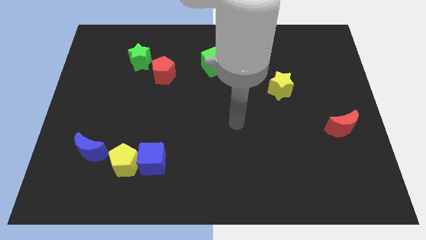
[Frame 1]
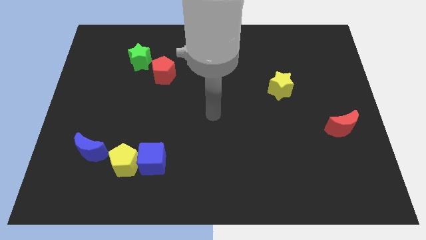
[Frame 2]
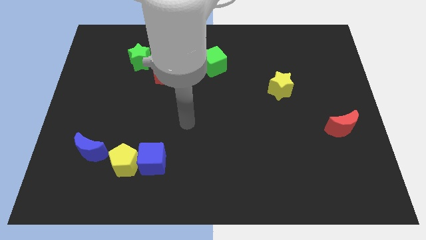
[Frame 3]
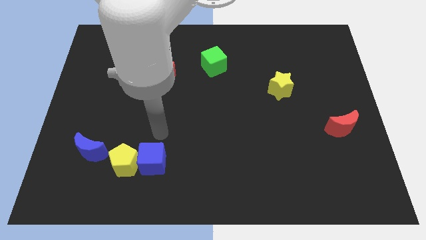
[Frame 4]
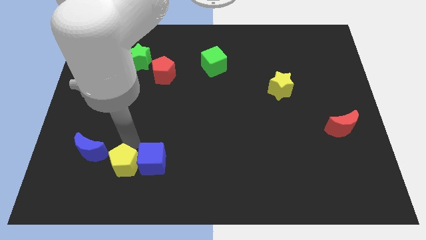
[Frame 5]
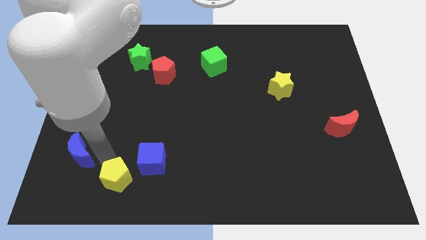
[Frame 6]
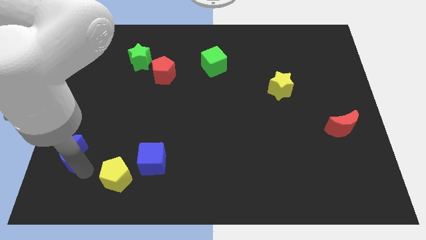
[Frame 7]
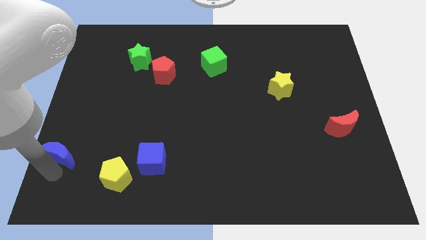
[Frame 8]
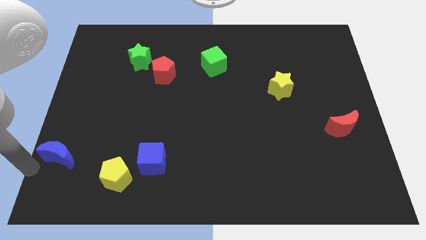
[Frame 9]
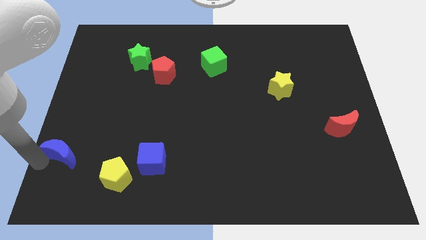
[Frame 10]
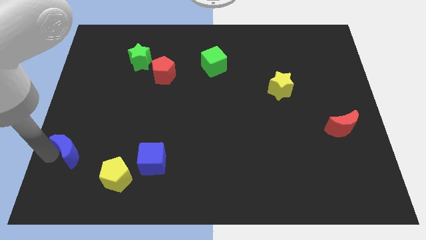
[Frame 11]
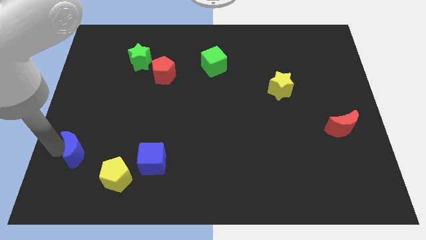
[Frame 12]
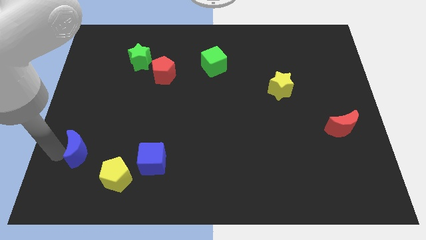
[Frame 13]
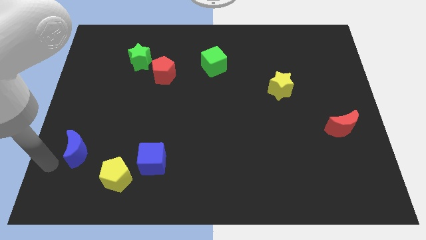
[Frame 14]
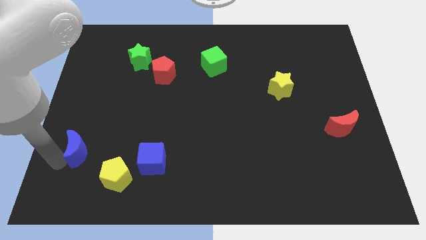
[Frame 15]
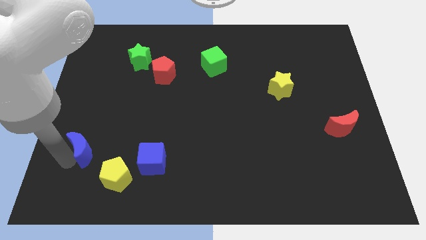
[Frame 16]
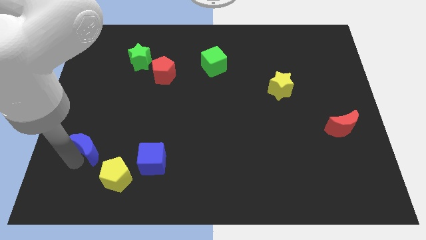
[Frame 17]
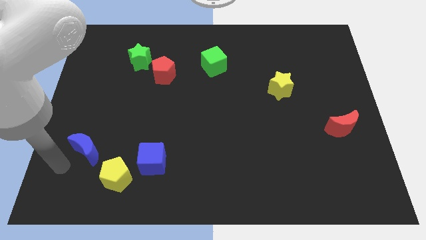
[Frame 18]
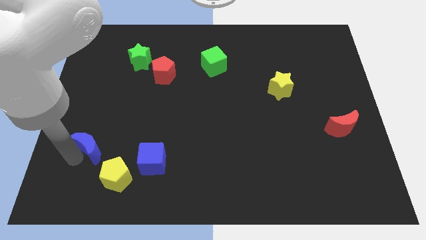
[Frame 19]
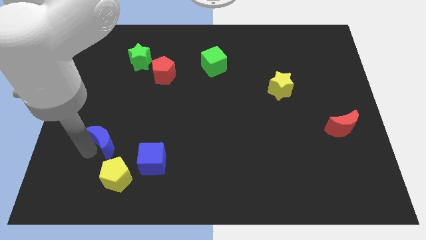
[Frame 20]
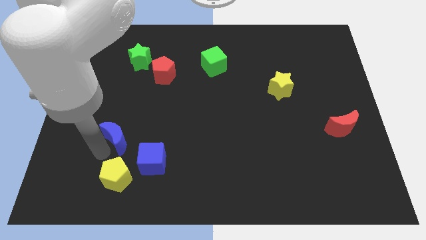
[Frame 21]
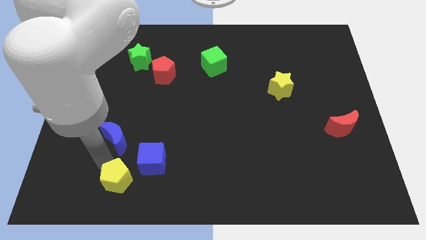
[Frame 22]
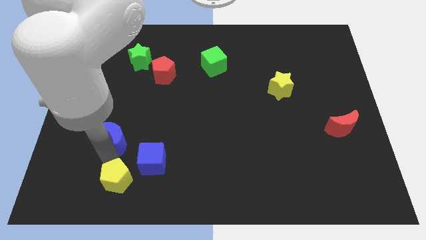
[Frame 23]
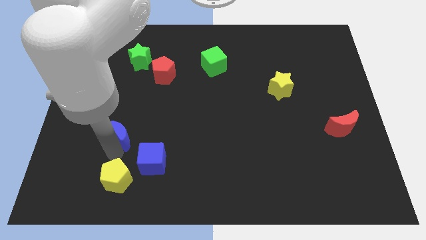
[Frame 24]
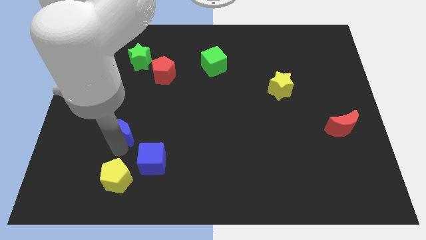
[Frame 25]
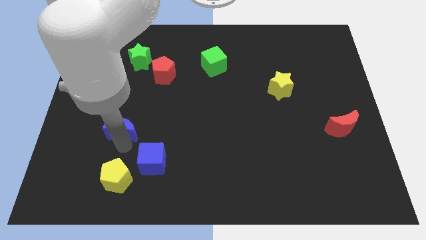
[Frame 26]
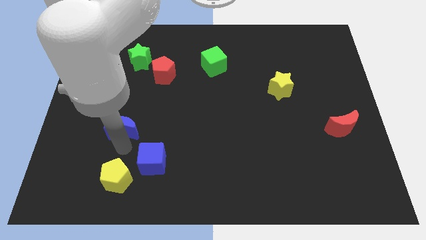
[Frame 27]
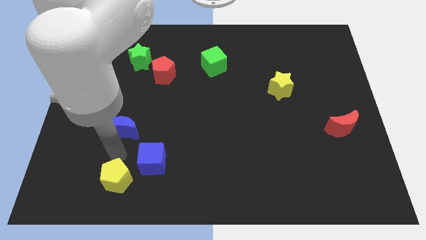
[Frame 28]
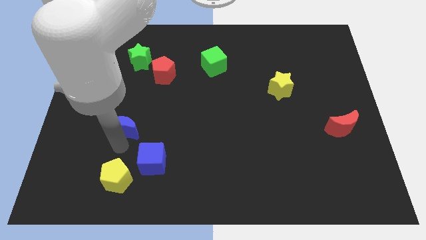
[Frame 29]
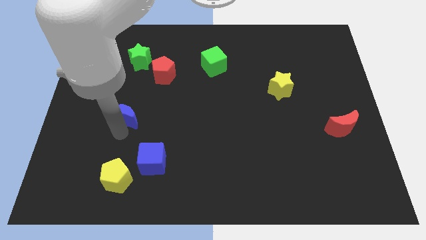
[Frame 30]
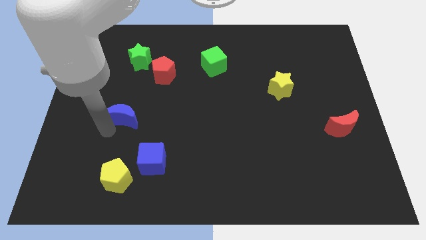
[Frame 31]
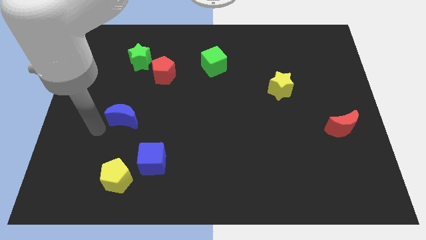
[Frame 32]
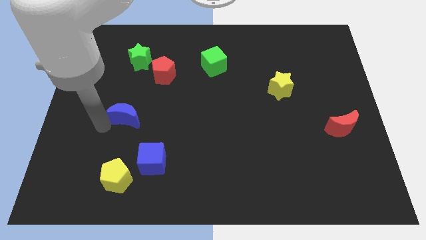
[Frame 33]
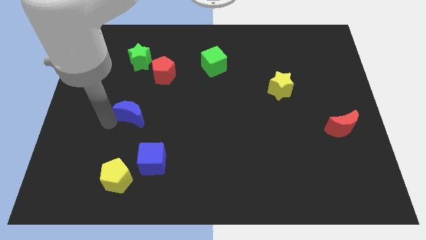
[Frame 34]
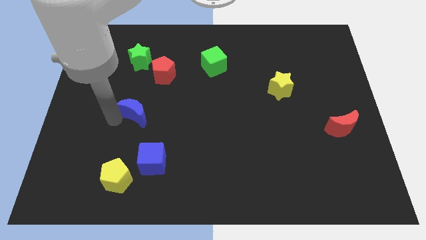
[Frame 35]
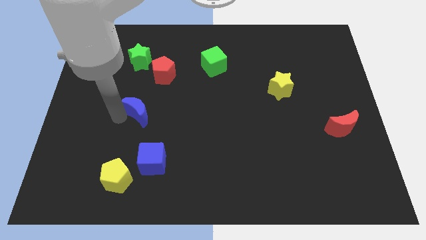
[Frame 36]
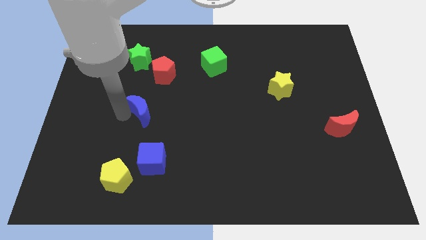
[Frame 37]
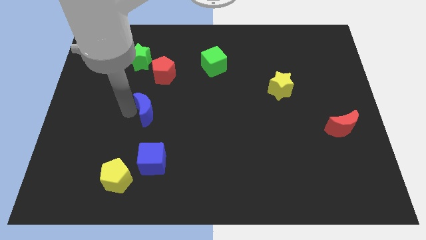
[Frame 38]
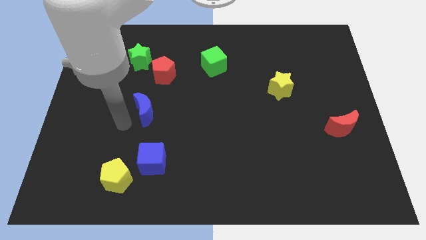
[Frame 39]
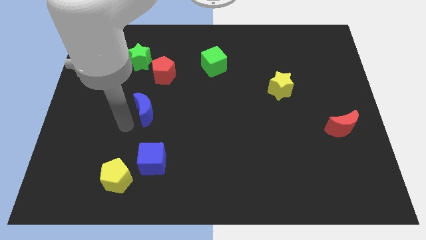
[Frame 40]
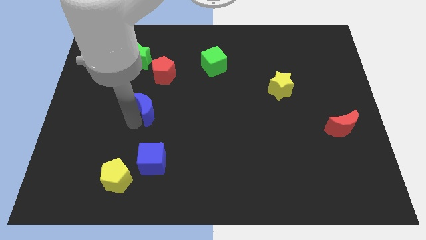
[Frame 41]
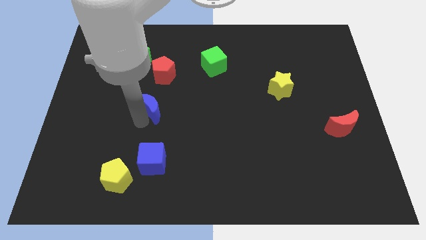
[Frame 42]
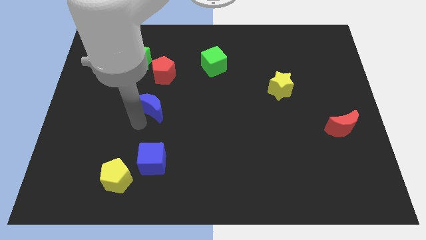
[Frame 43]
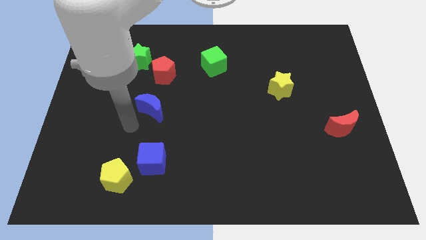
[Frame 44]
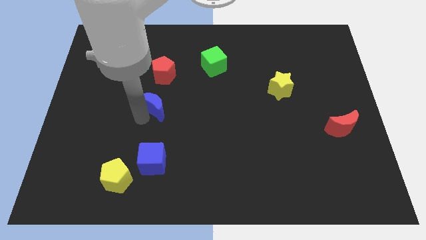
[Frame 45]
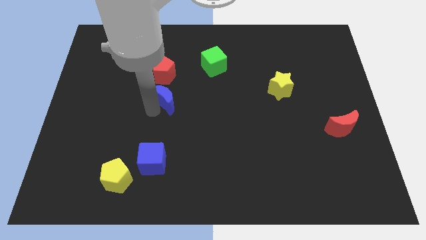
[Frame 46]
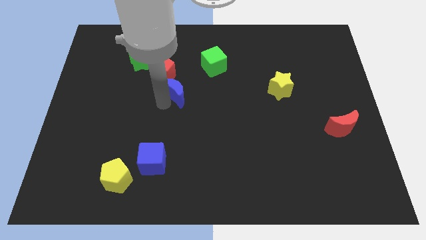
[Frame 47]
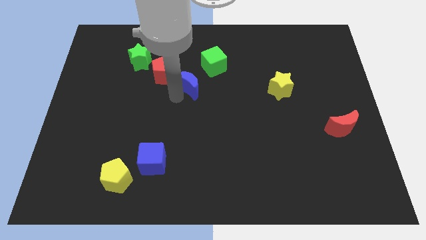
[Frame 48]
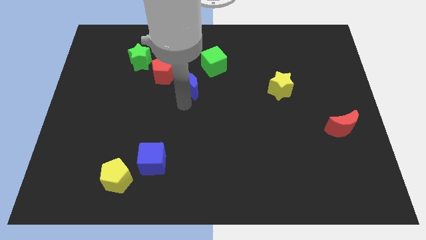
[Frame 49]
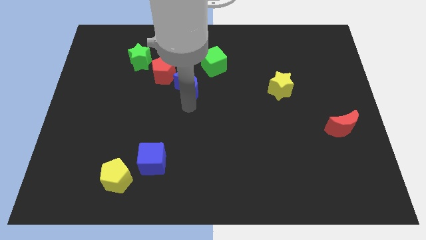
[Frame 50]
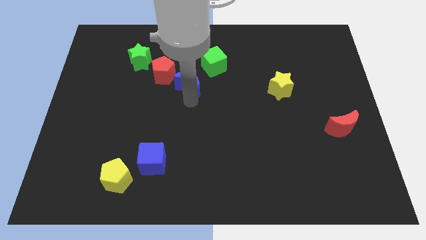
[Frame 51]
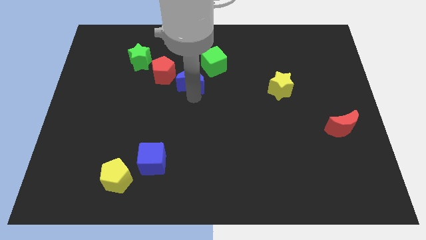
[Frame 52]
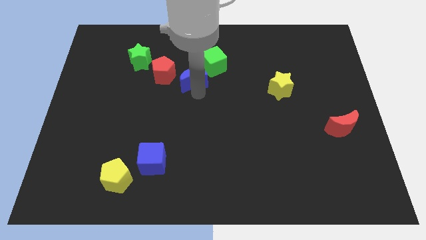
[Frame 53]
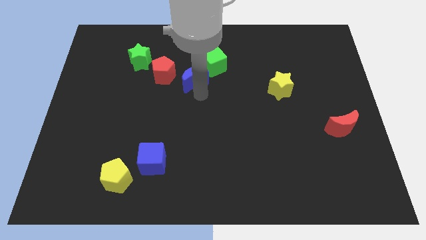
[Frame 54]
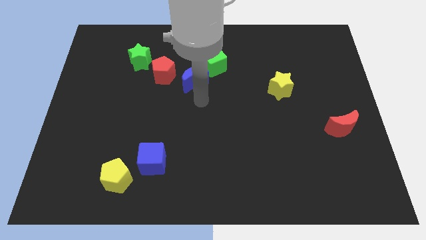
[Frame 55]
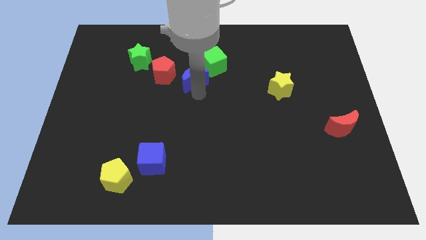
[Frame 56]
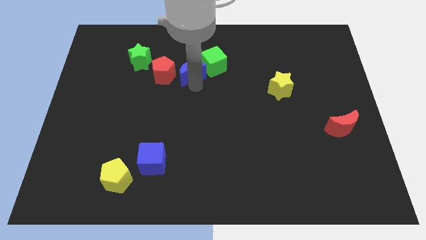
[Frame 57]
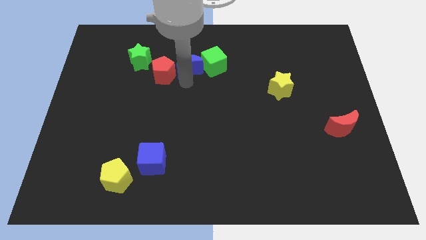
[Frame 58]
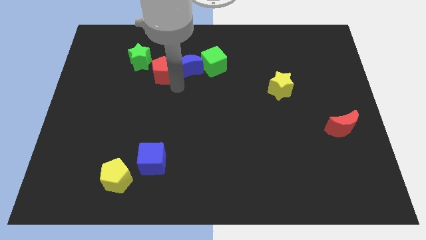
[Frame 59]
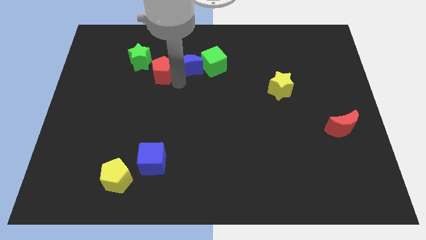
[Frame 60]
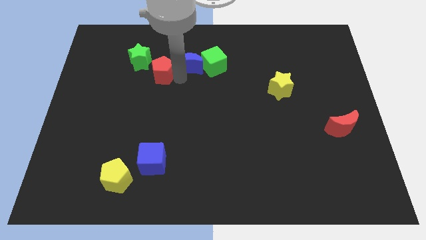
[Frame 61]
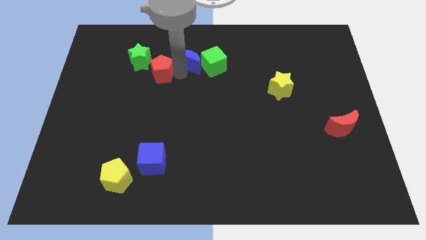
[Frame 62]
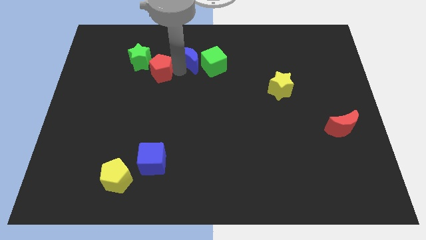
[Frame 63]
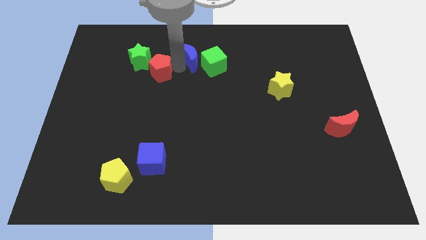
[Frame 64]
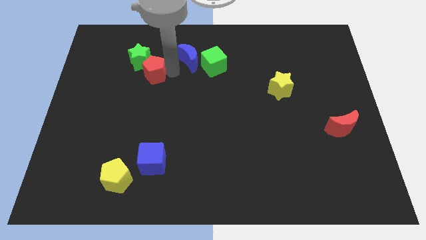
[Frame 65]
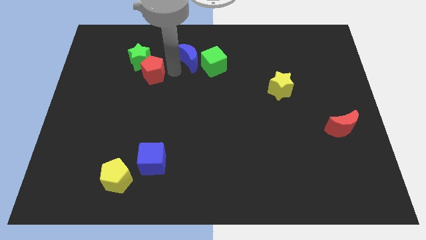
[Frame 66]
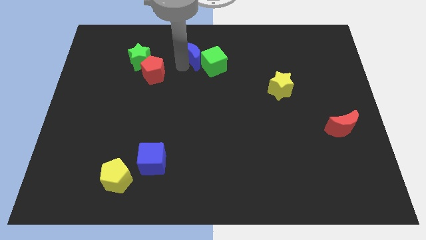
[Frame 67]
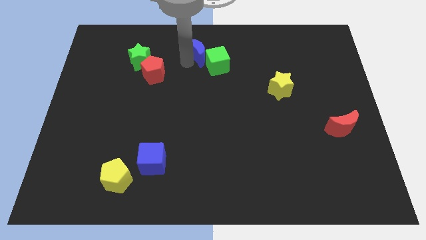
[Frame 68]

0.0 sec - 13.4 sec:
move the blue moon to the top
